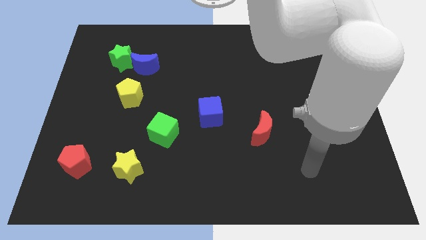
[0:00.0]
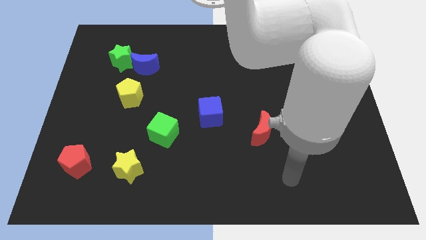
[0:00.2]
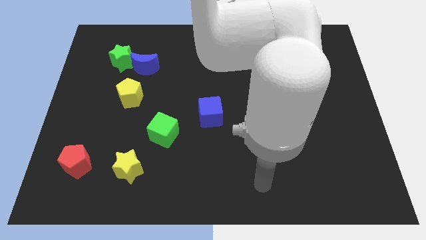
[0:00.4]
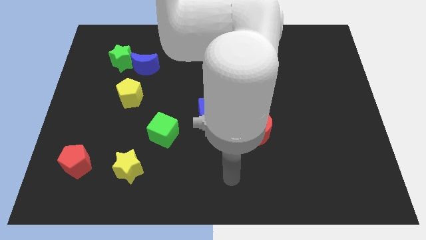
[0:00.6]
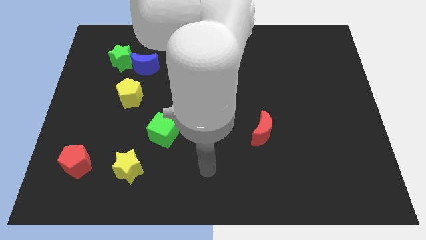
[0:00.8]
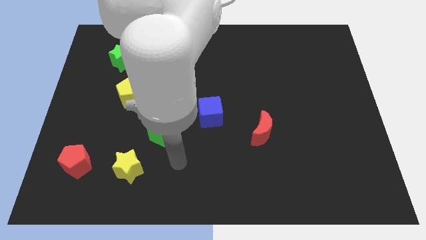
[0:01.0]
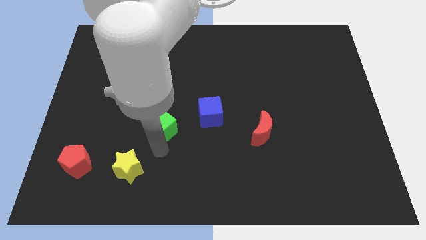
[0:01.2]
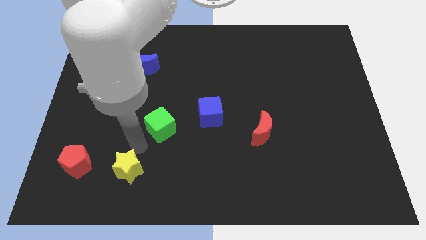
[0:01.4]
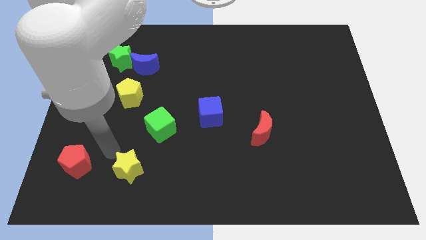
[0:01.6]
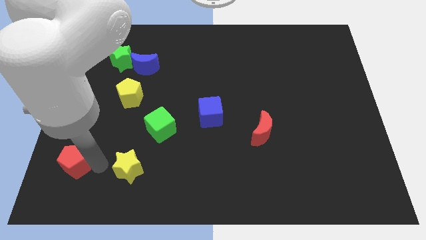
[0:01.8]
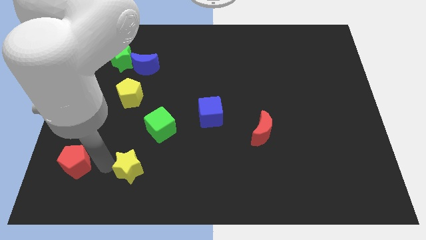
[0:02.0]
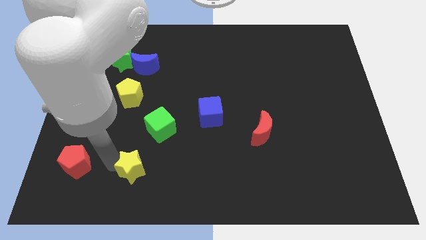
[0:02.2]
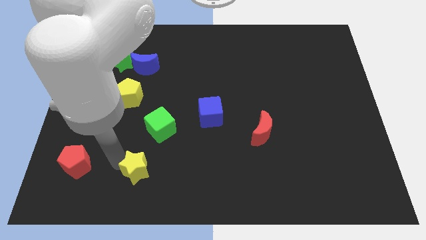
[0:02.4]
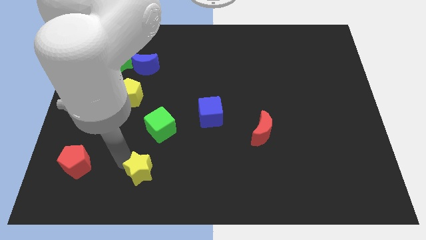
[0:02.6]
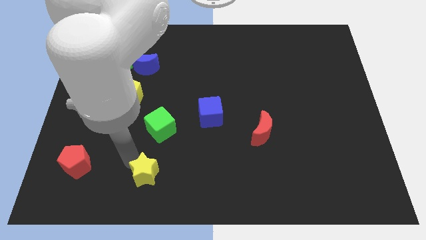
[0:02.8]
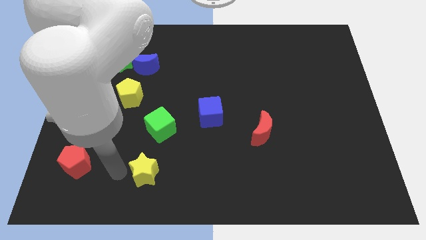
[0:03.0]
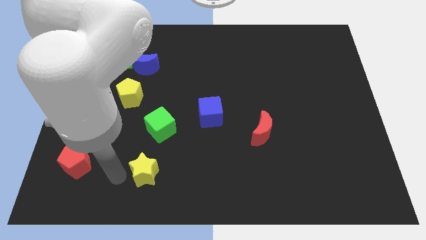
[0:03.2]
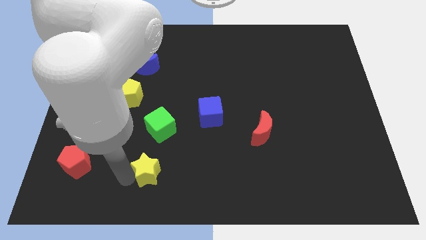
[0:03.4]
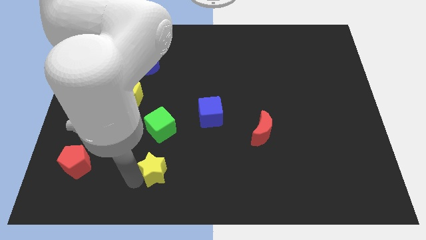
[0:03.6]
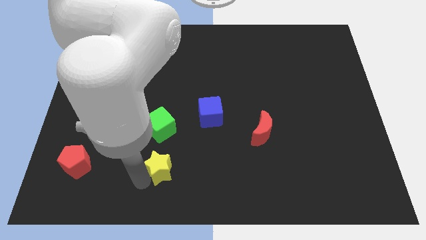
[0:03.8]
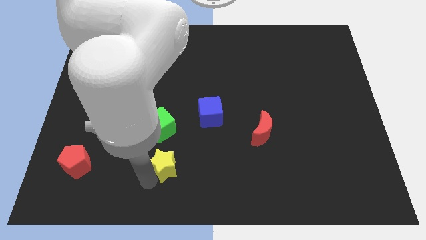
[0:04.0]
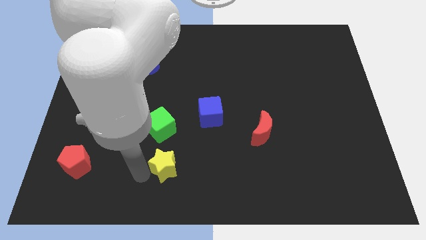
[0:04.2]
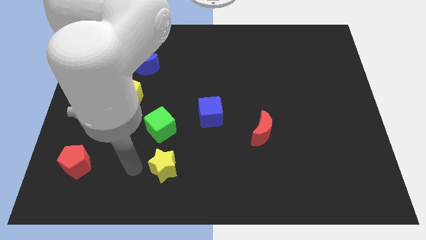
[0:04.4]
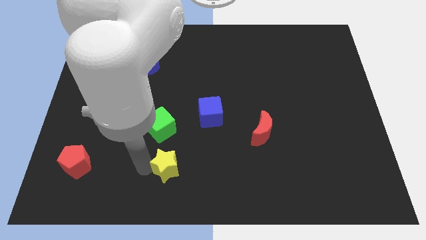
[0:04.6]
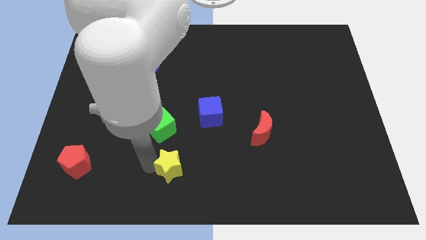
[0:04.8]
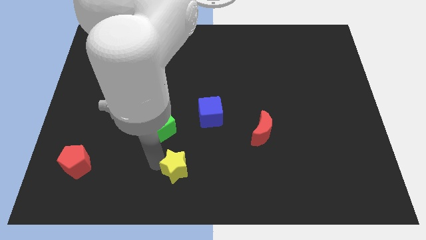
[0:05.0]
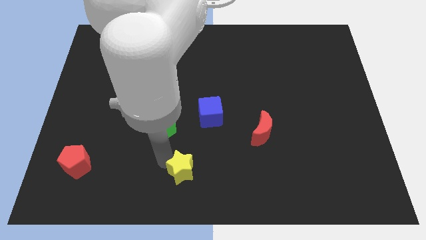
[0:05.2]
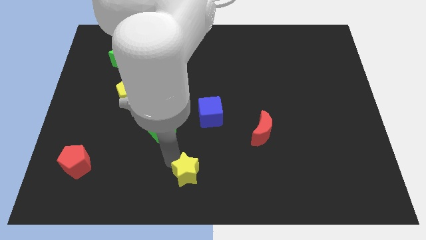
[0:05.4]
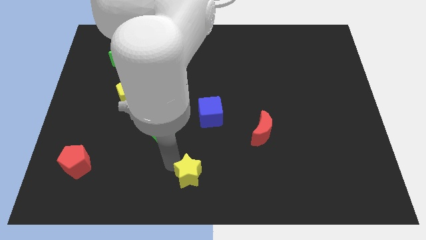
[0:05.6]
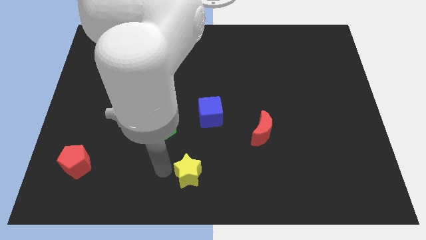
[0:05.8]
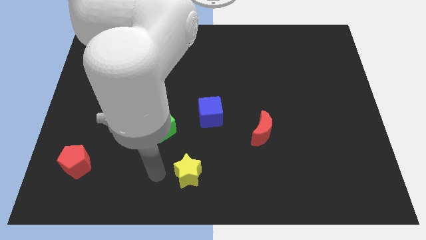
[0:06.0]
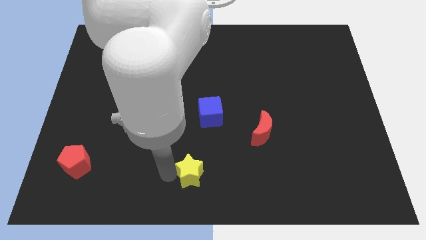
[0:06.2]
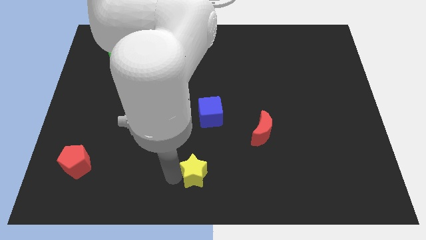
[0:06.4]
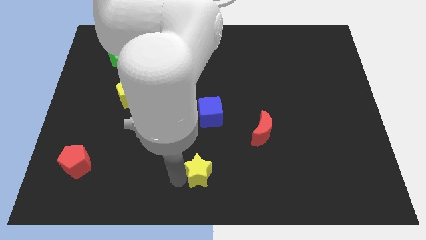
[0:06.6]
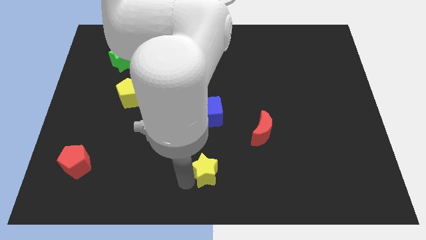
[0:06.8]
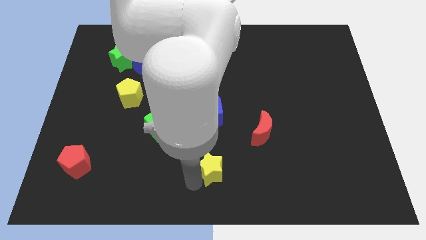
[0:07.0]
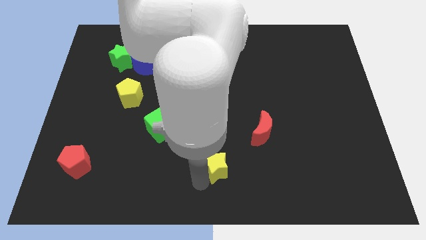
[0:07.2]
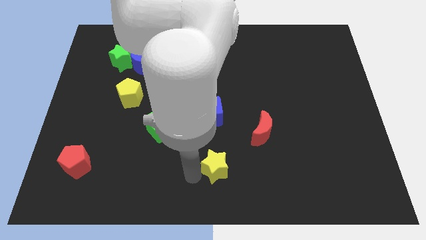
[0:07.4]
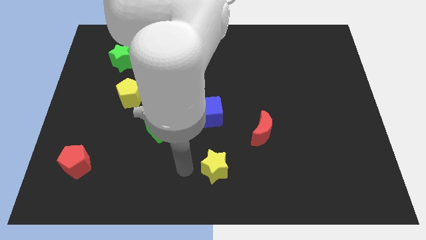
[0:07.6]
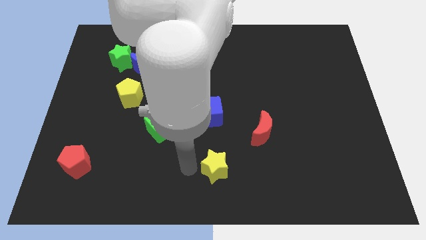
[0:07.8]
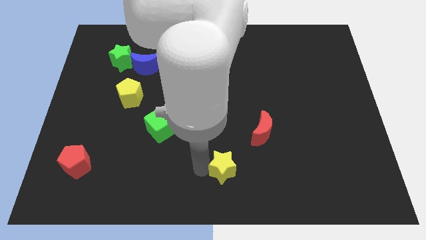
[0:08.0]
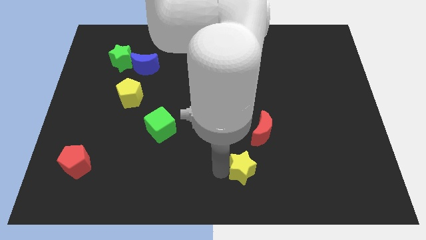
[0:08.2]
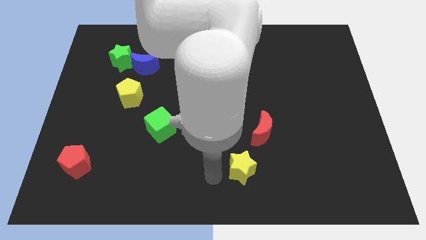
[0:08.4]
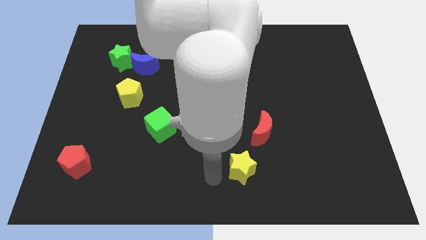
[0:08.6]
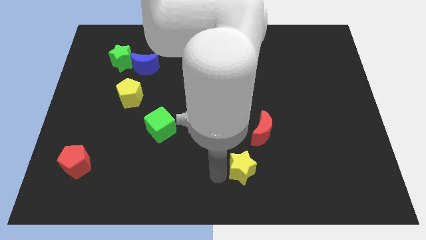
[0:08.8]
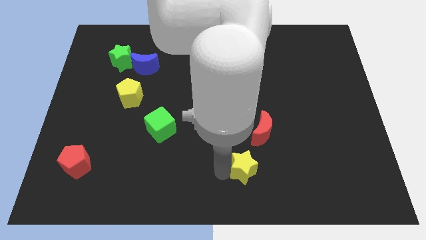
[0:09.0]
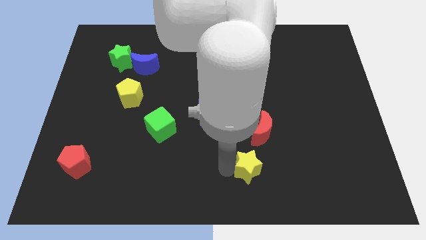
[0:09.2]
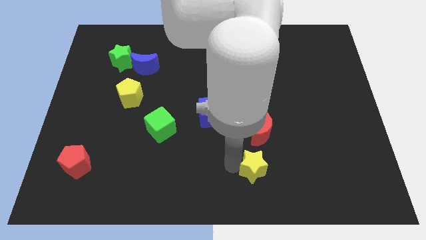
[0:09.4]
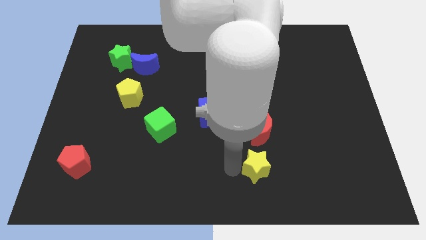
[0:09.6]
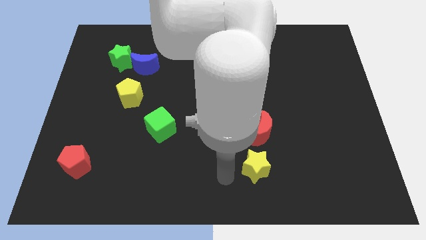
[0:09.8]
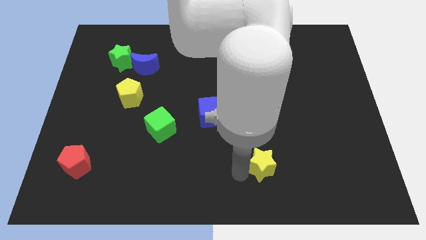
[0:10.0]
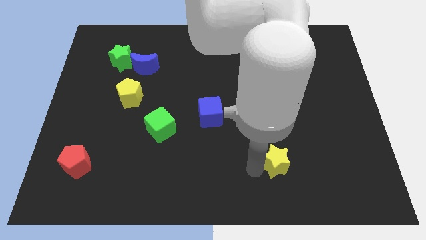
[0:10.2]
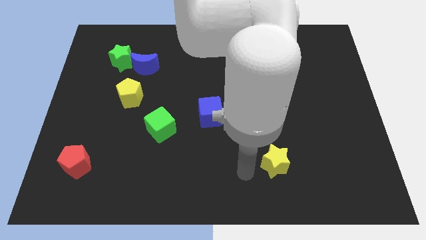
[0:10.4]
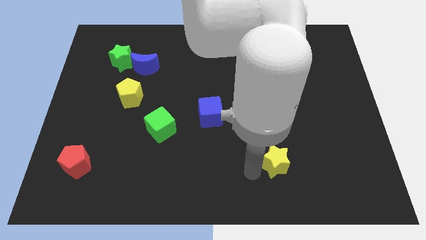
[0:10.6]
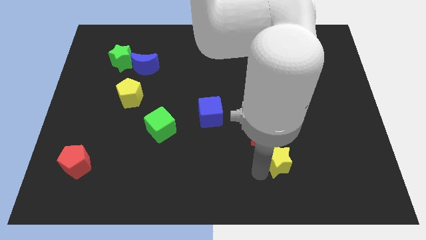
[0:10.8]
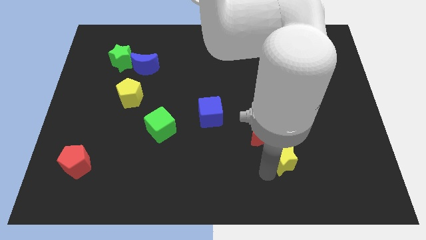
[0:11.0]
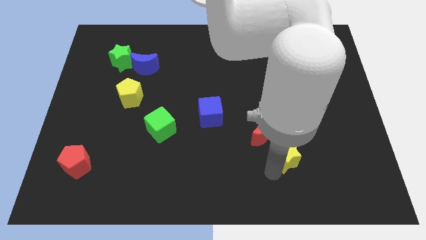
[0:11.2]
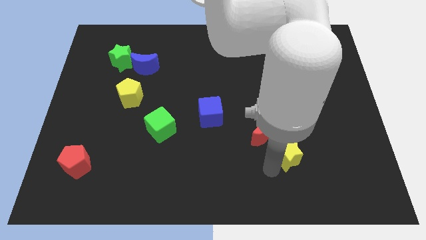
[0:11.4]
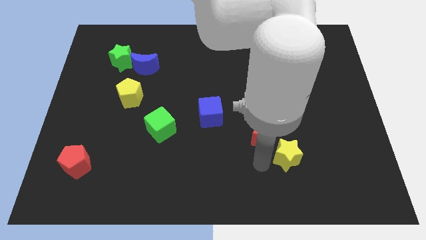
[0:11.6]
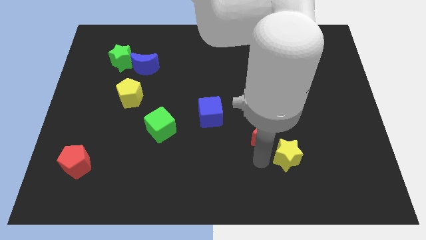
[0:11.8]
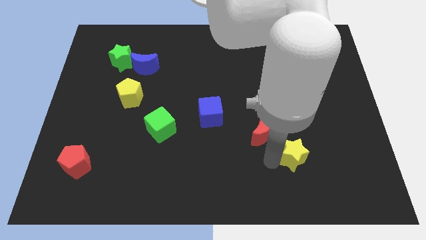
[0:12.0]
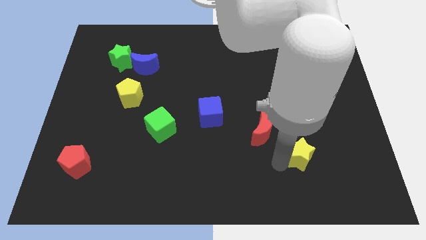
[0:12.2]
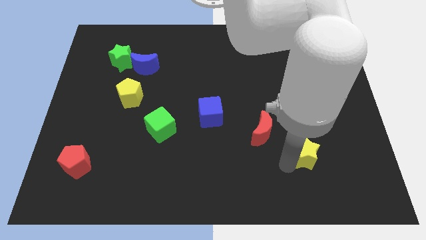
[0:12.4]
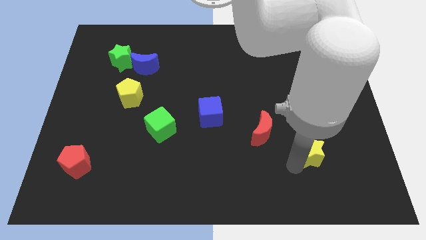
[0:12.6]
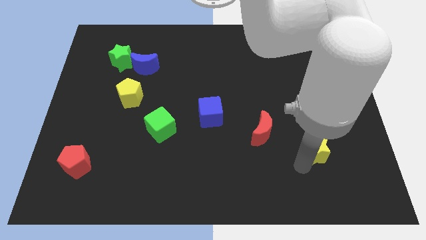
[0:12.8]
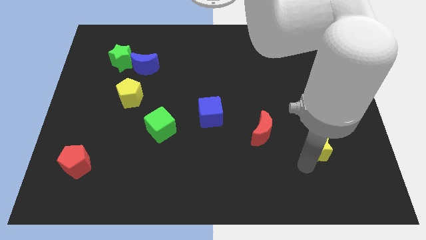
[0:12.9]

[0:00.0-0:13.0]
move the yellow star to the right of the red moon

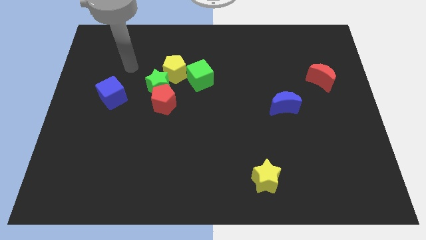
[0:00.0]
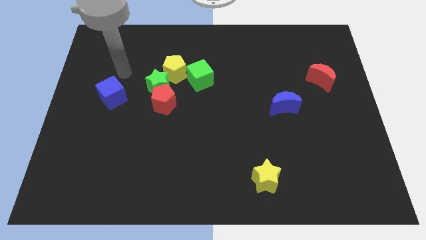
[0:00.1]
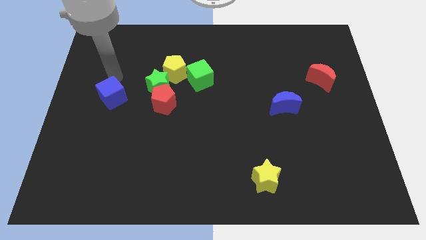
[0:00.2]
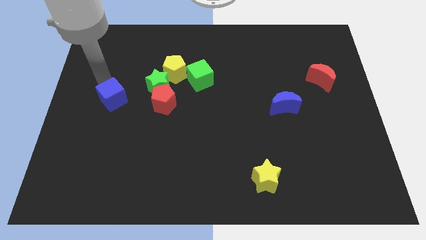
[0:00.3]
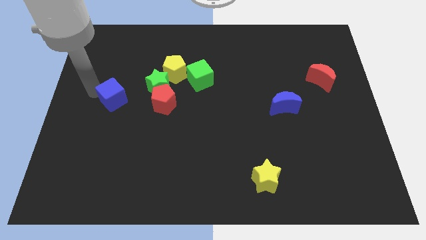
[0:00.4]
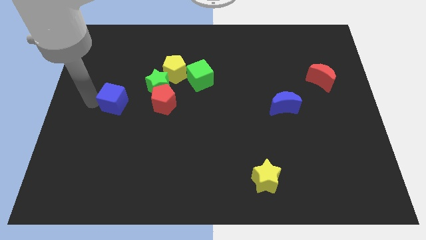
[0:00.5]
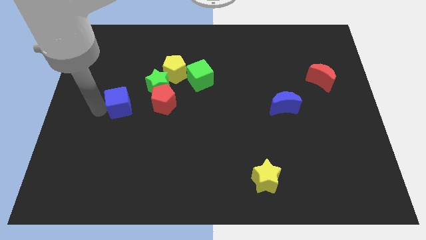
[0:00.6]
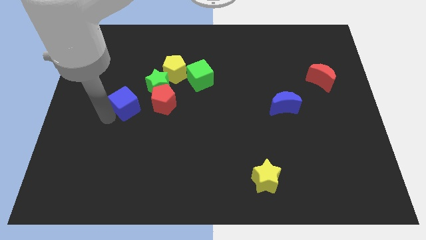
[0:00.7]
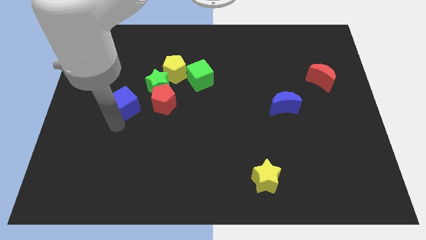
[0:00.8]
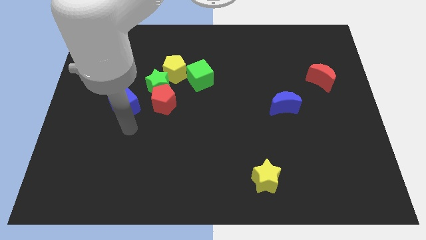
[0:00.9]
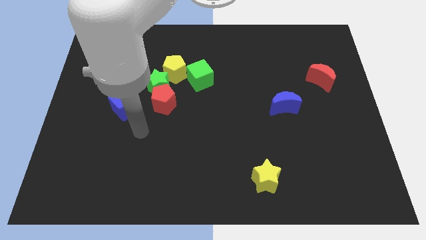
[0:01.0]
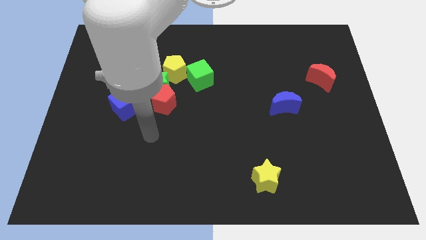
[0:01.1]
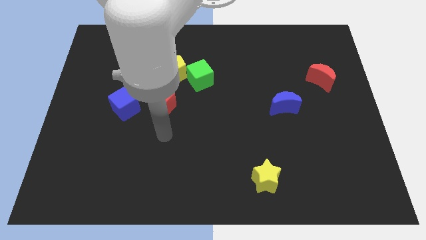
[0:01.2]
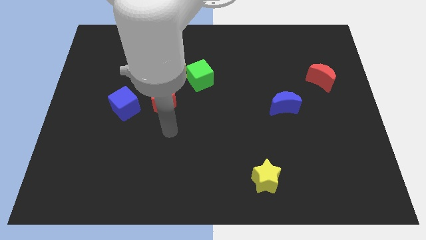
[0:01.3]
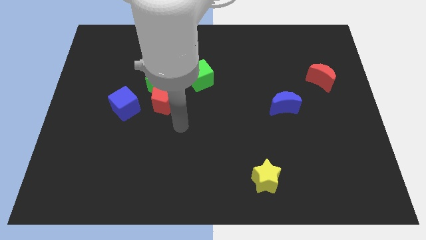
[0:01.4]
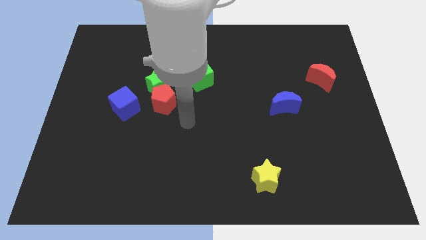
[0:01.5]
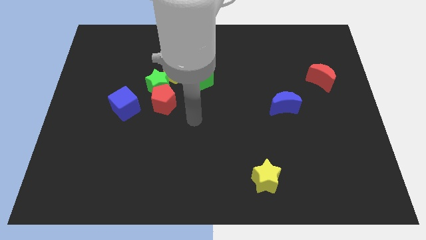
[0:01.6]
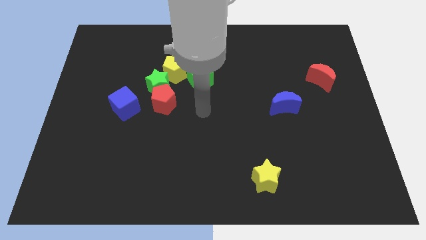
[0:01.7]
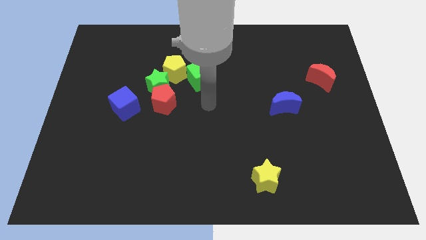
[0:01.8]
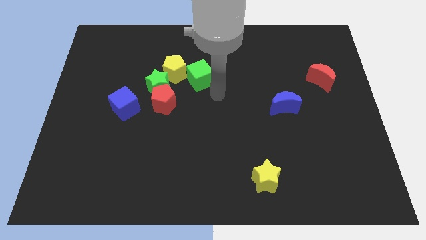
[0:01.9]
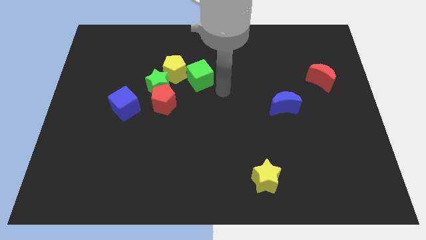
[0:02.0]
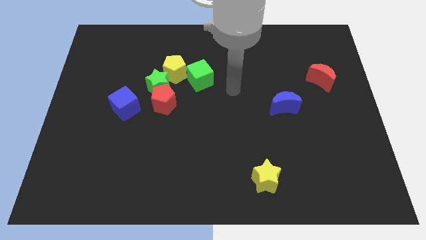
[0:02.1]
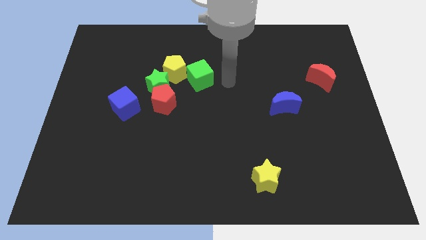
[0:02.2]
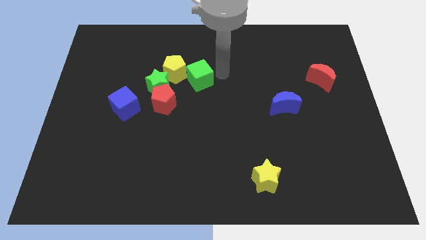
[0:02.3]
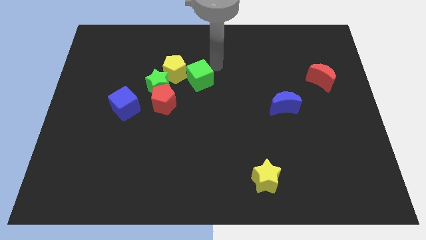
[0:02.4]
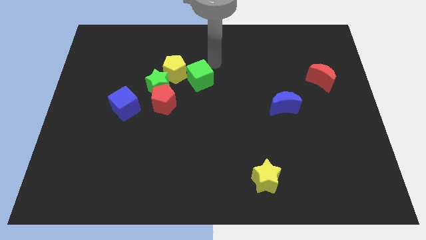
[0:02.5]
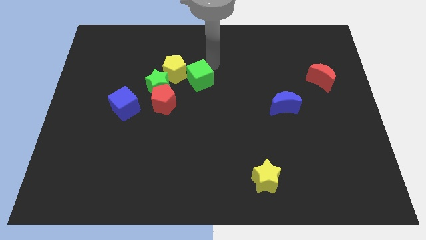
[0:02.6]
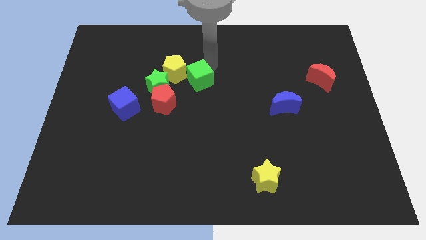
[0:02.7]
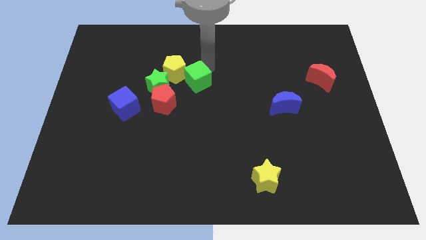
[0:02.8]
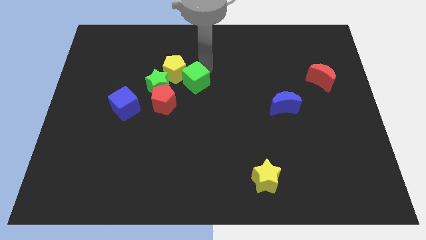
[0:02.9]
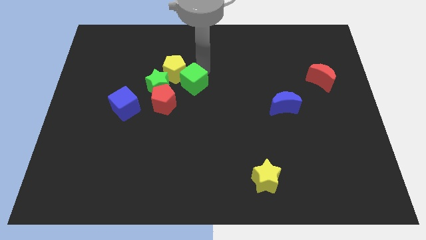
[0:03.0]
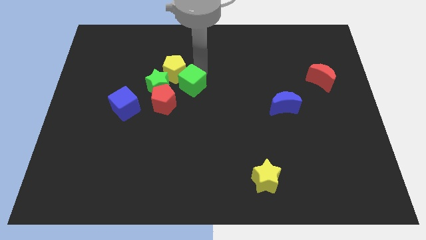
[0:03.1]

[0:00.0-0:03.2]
move the green cube to the bottom of the yellow pentagon
